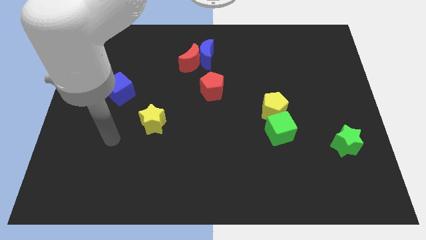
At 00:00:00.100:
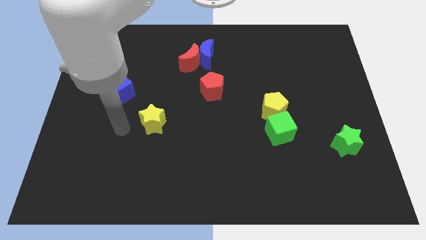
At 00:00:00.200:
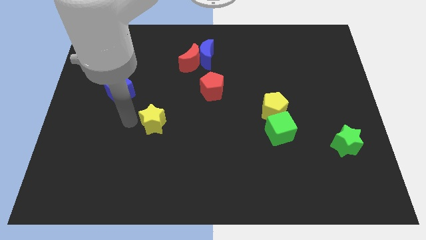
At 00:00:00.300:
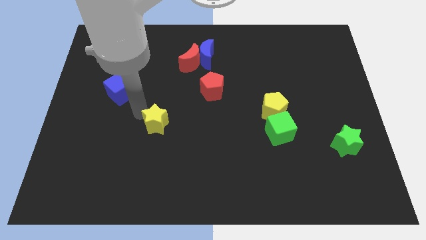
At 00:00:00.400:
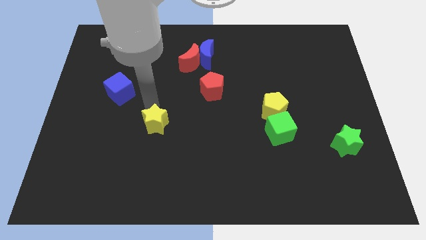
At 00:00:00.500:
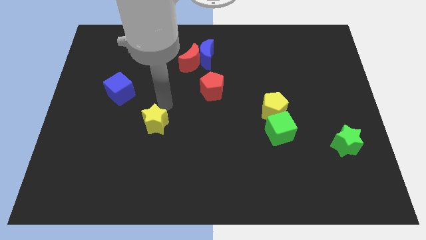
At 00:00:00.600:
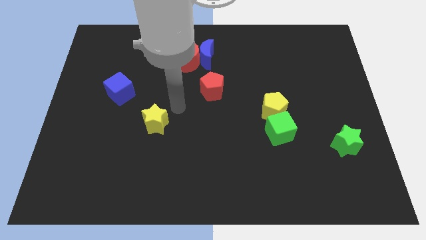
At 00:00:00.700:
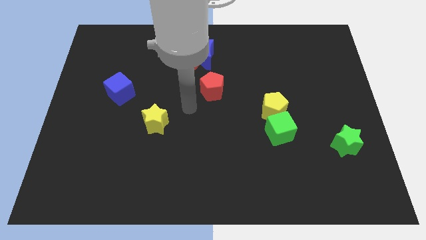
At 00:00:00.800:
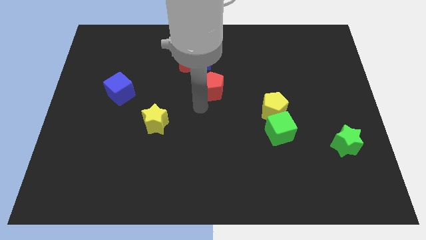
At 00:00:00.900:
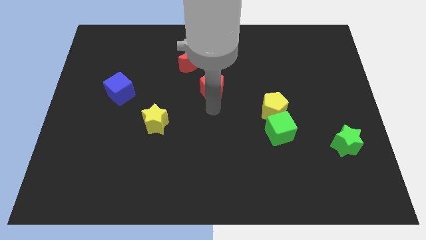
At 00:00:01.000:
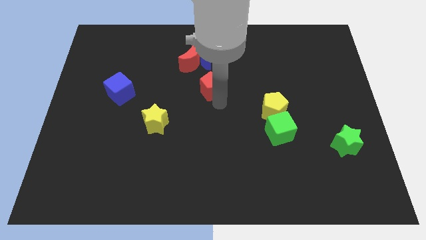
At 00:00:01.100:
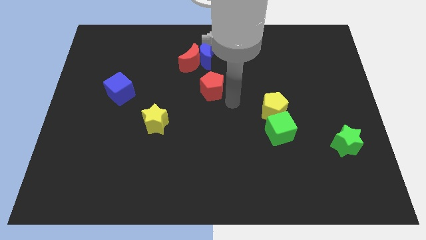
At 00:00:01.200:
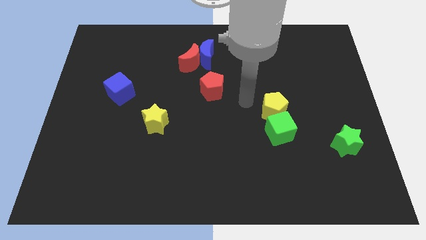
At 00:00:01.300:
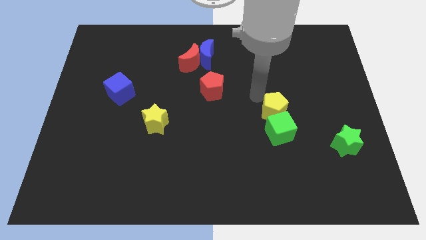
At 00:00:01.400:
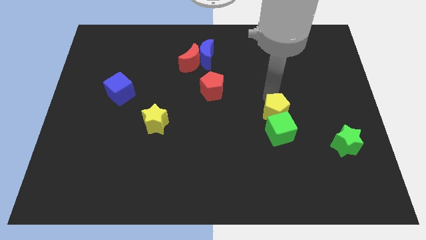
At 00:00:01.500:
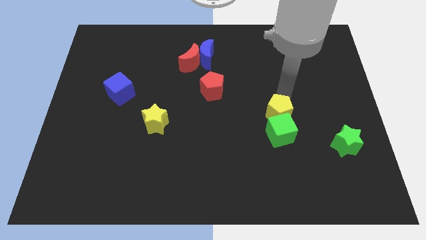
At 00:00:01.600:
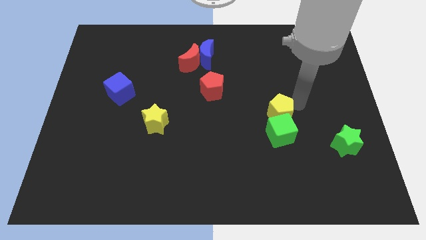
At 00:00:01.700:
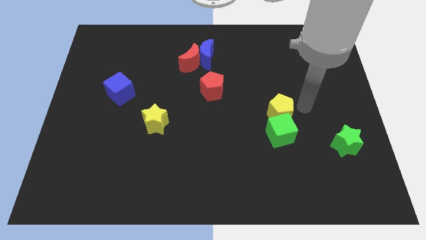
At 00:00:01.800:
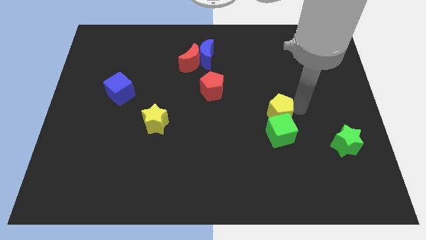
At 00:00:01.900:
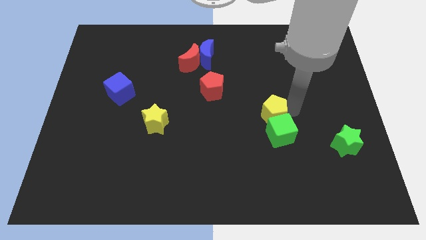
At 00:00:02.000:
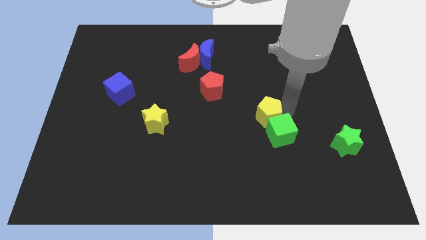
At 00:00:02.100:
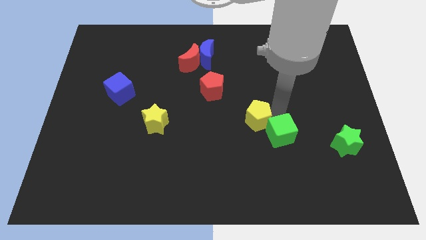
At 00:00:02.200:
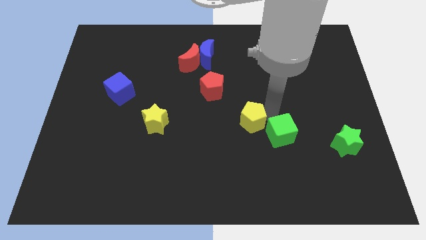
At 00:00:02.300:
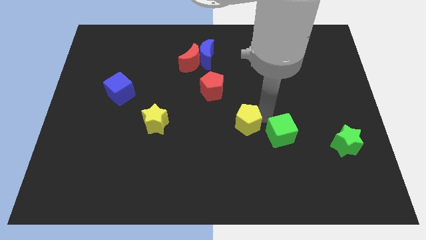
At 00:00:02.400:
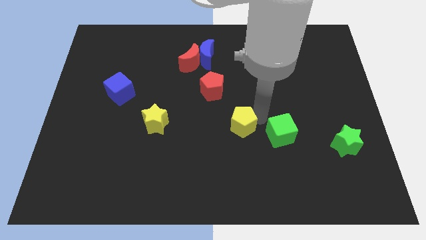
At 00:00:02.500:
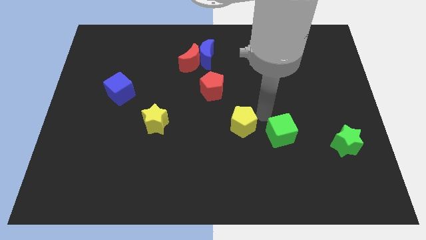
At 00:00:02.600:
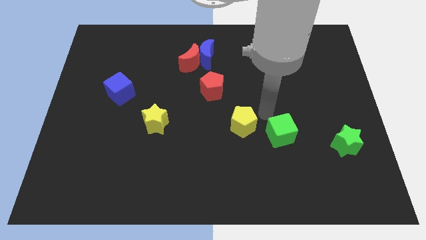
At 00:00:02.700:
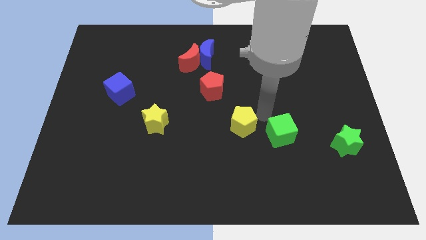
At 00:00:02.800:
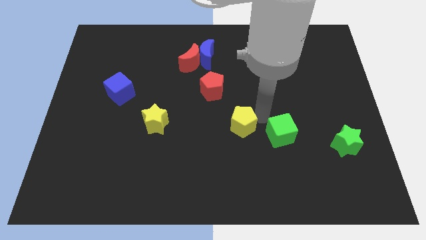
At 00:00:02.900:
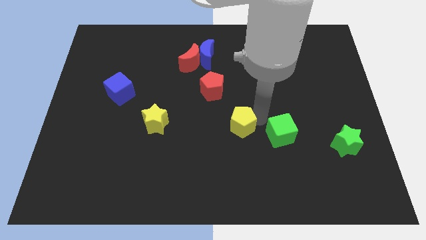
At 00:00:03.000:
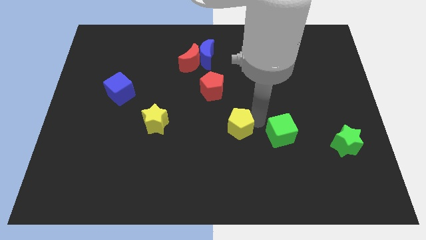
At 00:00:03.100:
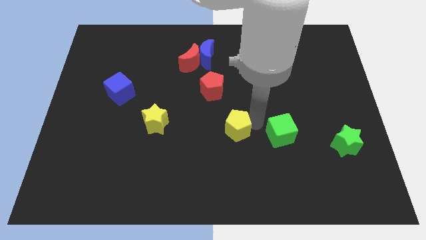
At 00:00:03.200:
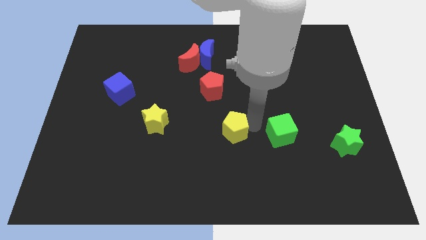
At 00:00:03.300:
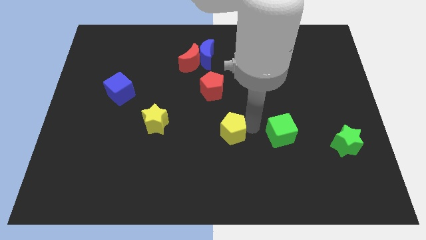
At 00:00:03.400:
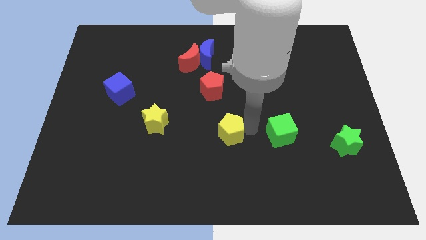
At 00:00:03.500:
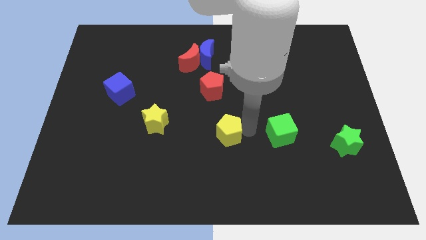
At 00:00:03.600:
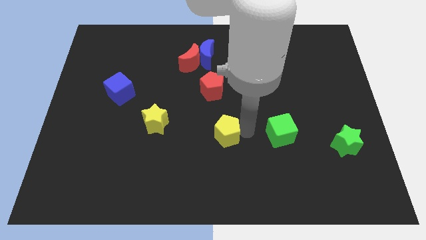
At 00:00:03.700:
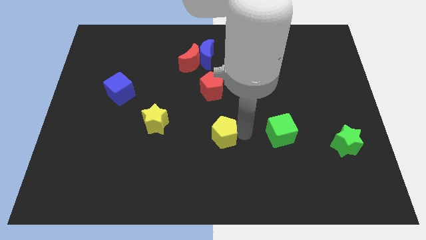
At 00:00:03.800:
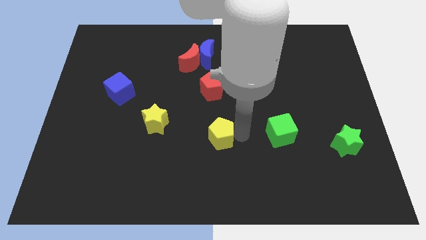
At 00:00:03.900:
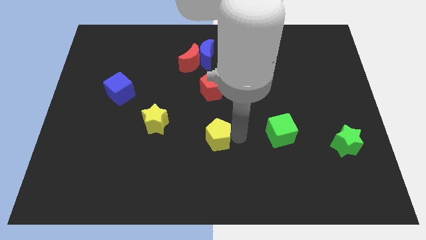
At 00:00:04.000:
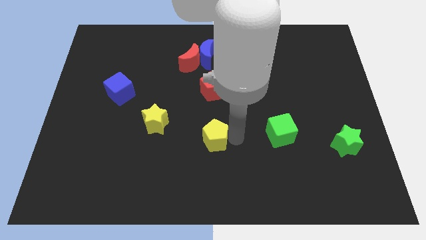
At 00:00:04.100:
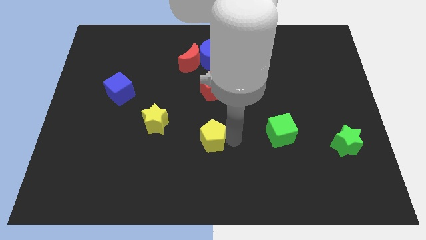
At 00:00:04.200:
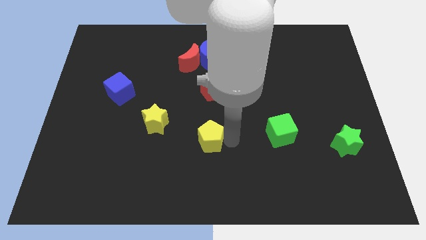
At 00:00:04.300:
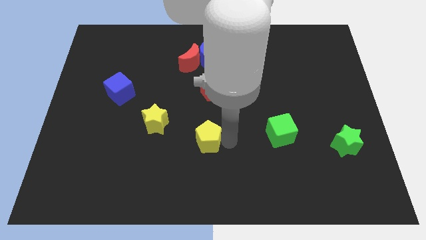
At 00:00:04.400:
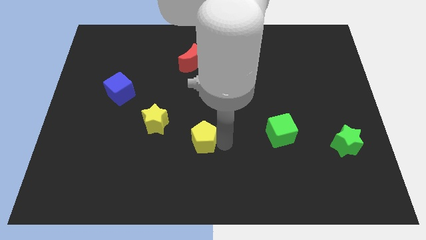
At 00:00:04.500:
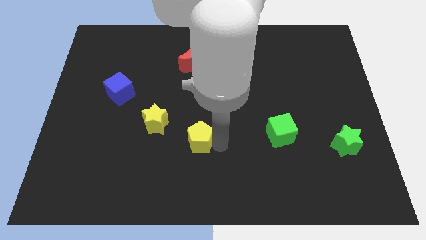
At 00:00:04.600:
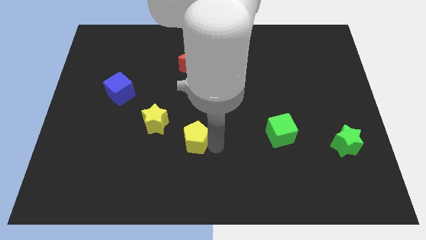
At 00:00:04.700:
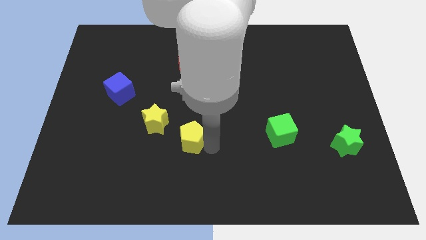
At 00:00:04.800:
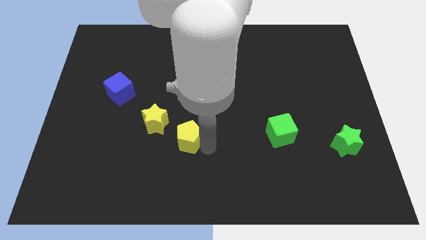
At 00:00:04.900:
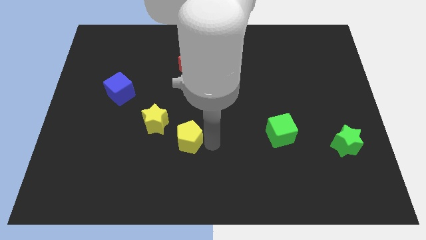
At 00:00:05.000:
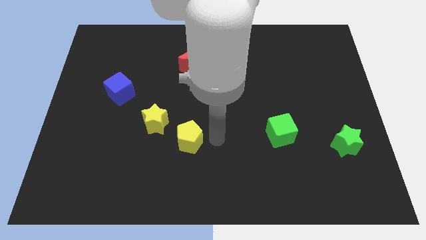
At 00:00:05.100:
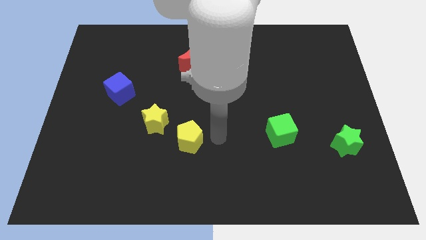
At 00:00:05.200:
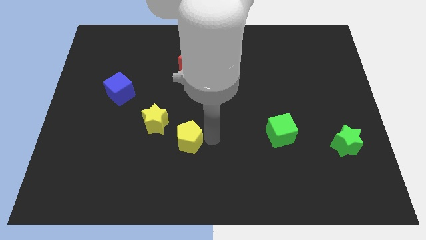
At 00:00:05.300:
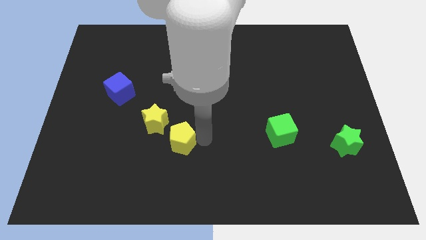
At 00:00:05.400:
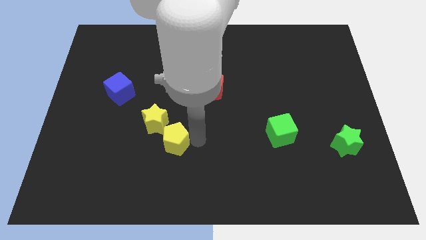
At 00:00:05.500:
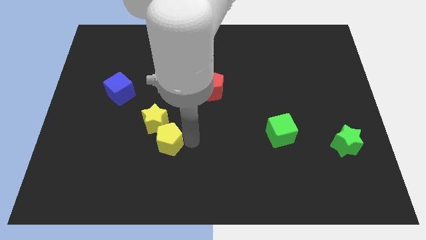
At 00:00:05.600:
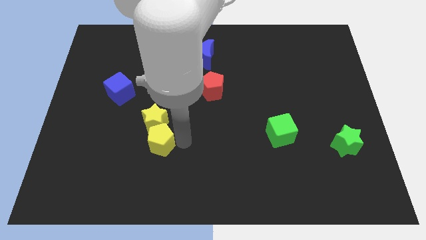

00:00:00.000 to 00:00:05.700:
put the yellow pentagon to the bottom left of the yellow star

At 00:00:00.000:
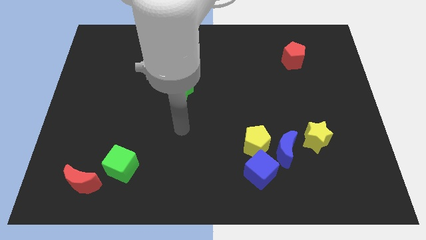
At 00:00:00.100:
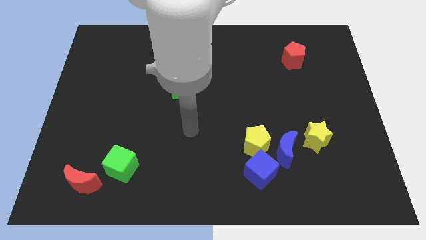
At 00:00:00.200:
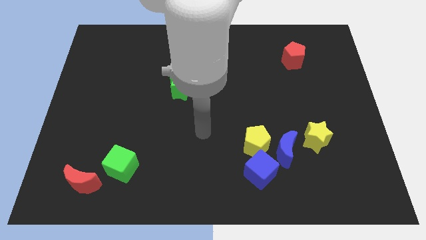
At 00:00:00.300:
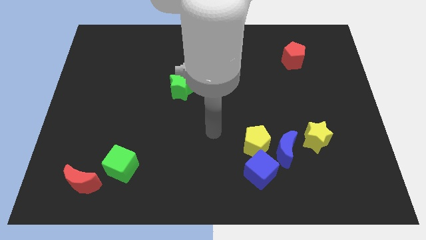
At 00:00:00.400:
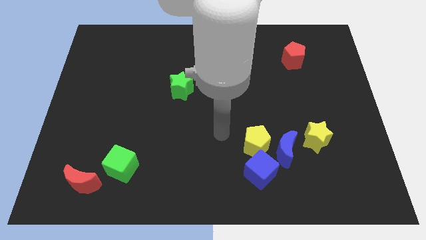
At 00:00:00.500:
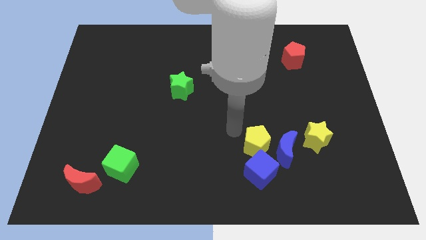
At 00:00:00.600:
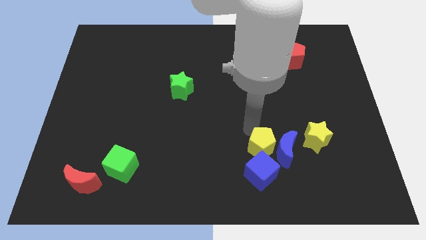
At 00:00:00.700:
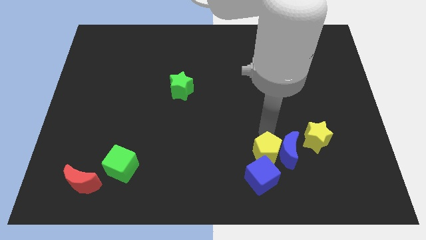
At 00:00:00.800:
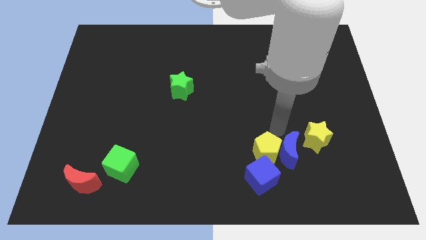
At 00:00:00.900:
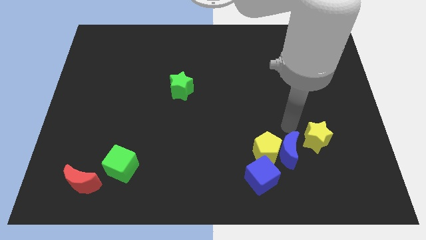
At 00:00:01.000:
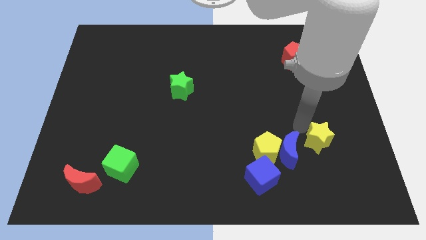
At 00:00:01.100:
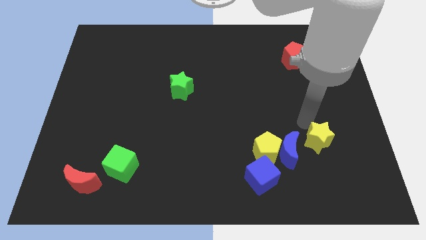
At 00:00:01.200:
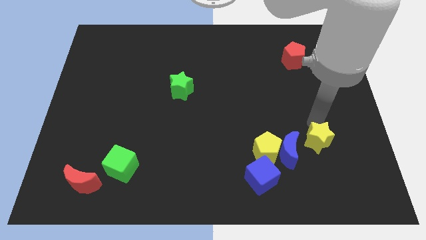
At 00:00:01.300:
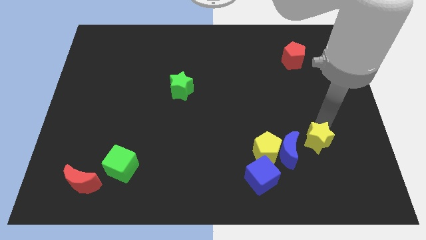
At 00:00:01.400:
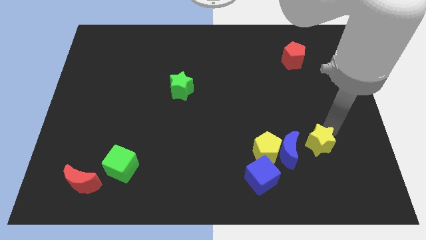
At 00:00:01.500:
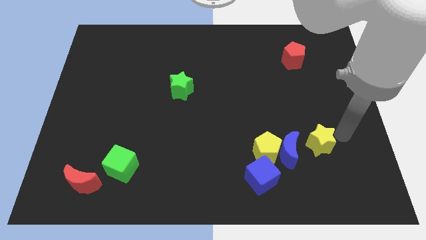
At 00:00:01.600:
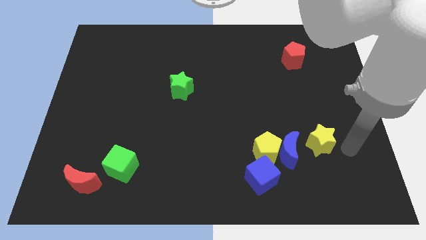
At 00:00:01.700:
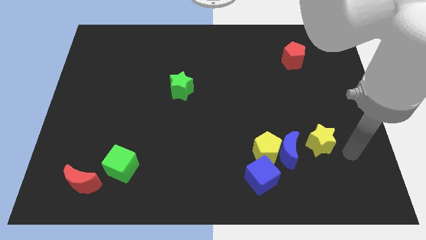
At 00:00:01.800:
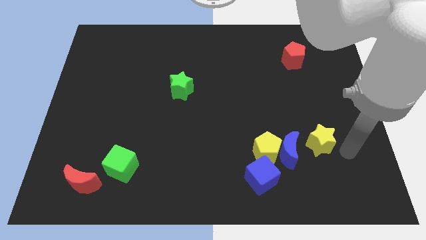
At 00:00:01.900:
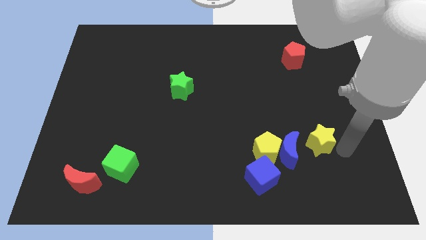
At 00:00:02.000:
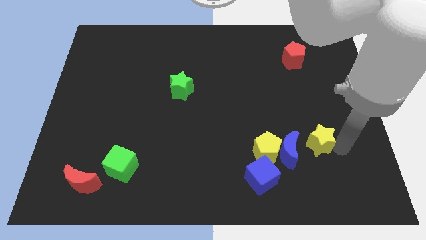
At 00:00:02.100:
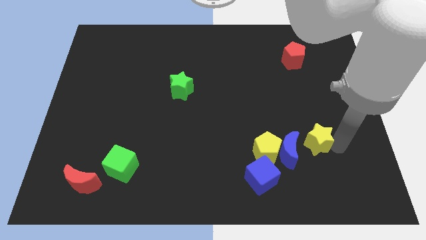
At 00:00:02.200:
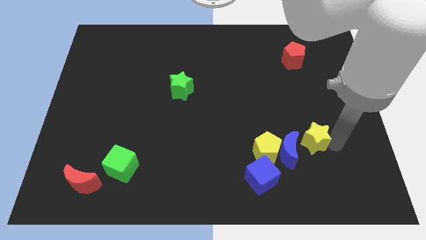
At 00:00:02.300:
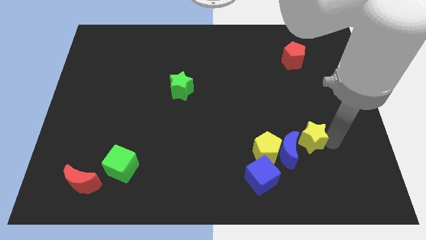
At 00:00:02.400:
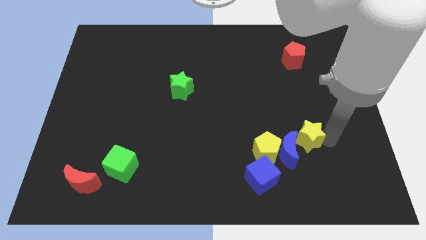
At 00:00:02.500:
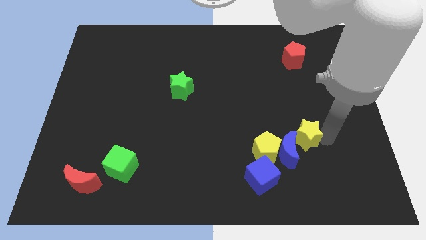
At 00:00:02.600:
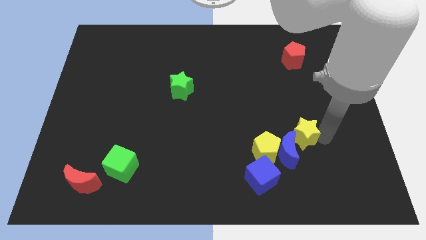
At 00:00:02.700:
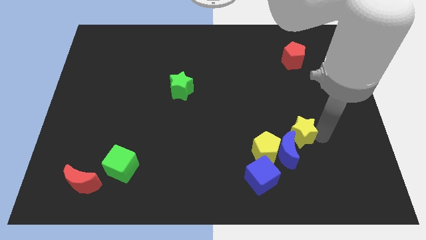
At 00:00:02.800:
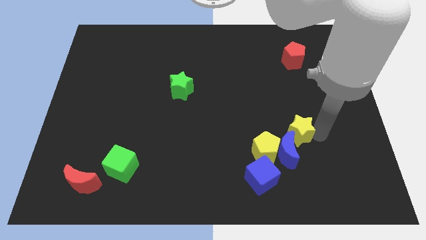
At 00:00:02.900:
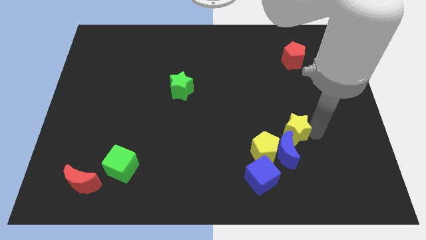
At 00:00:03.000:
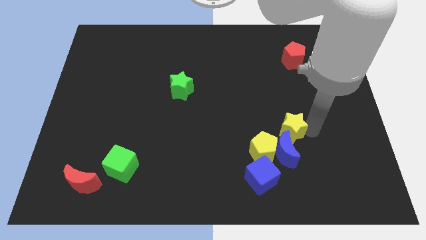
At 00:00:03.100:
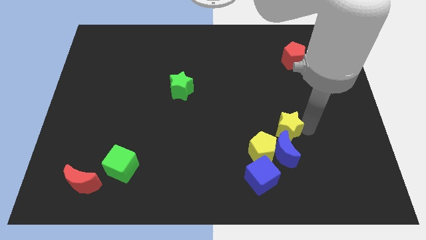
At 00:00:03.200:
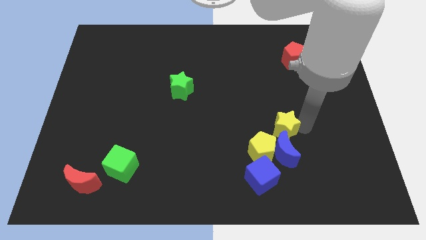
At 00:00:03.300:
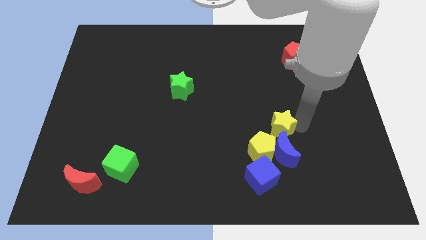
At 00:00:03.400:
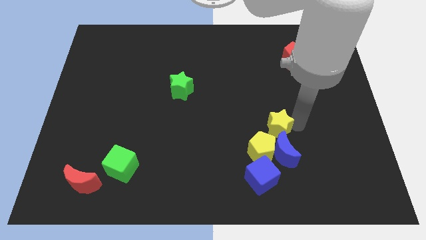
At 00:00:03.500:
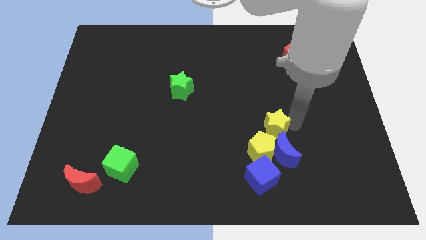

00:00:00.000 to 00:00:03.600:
slide the yellow star to the top of the blue cube
